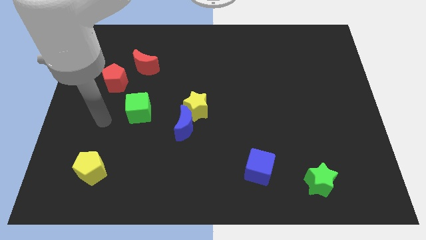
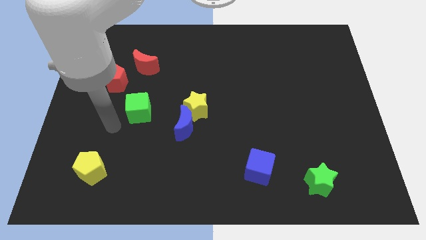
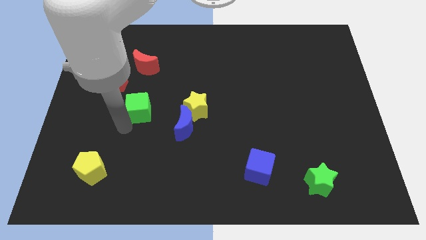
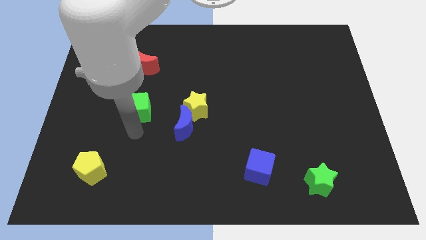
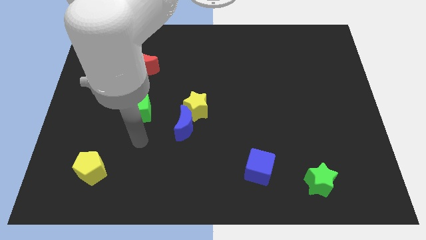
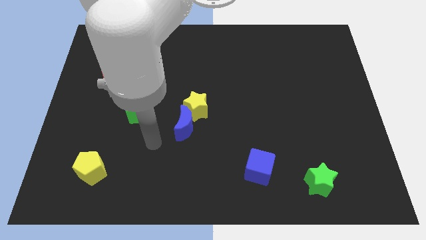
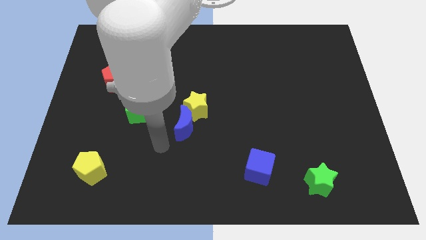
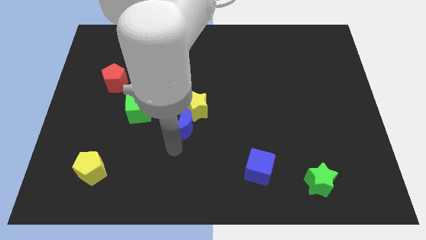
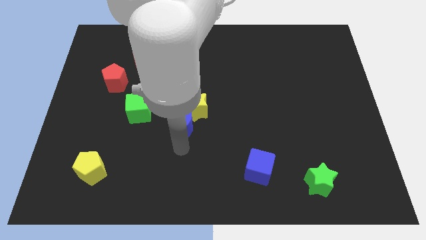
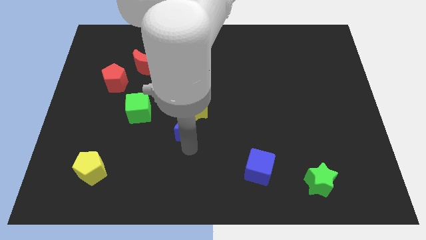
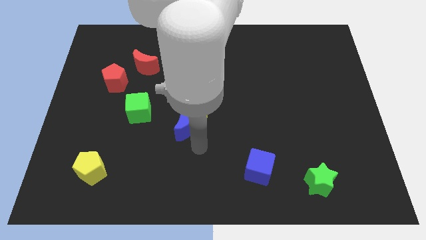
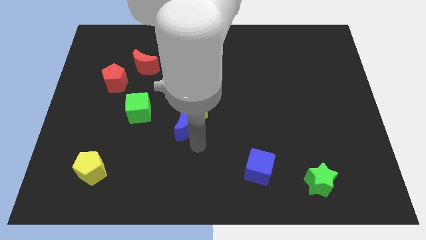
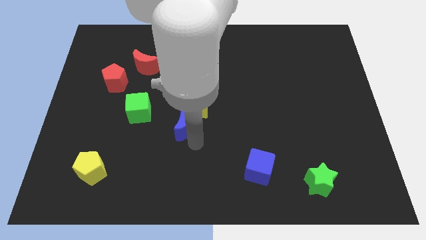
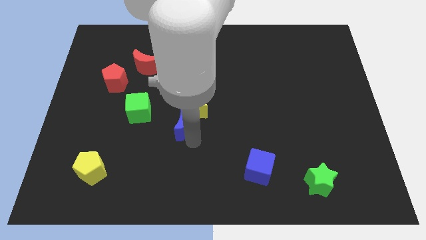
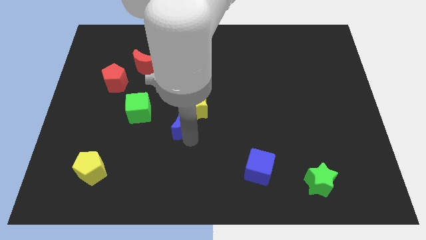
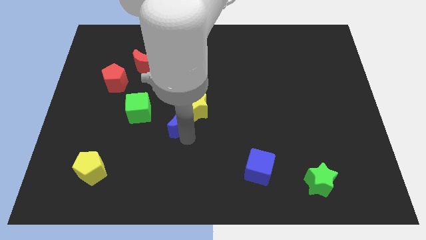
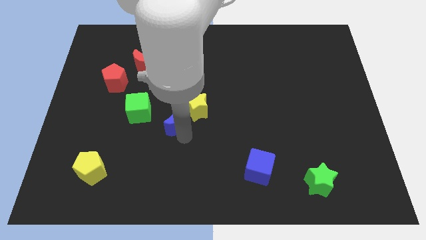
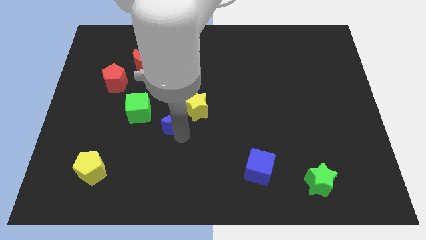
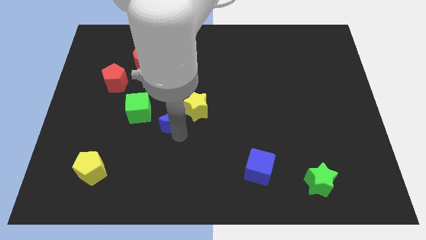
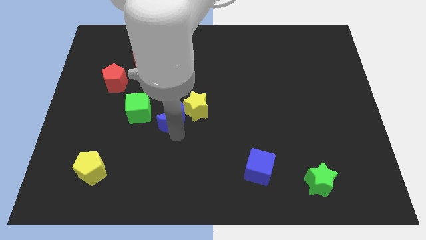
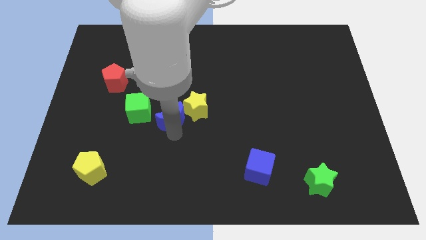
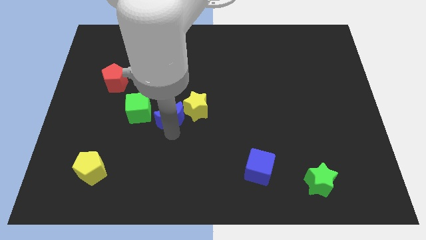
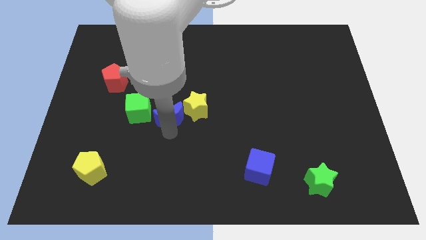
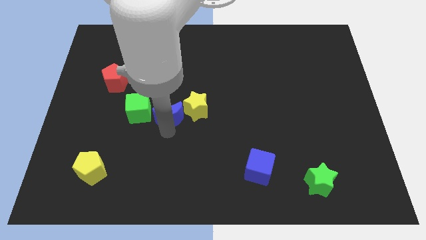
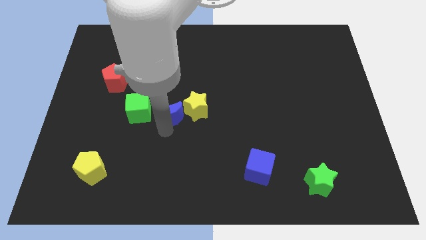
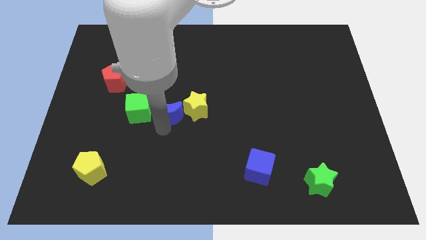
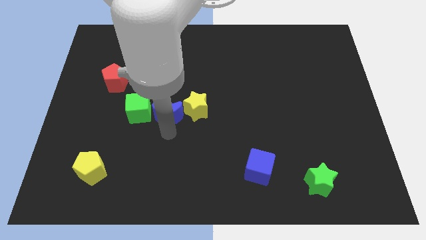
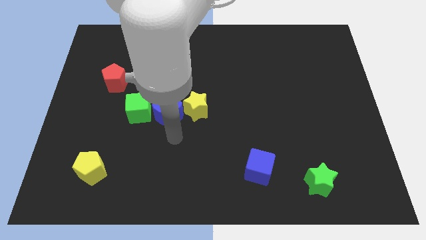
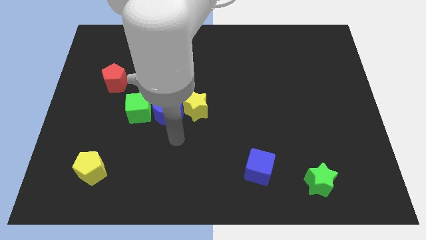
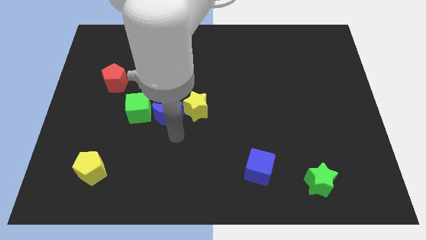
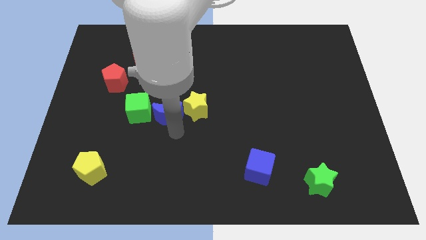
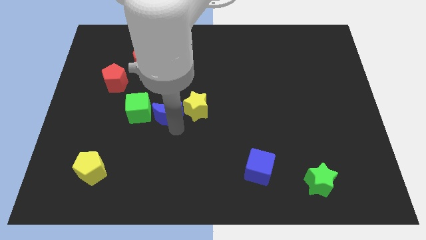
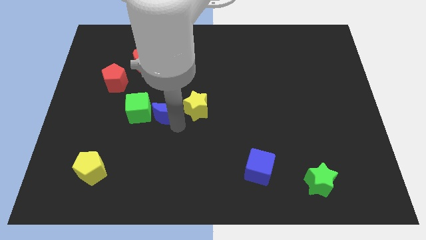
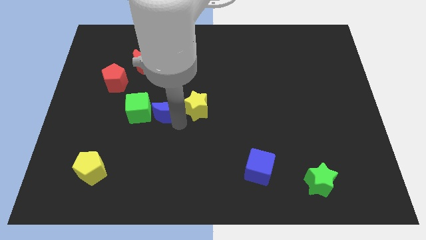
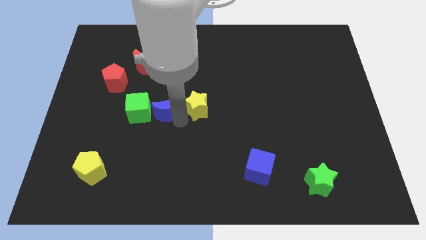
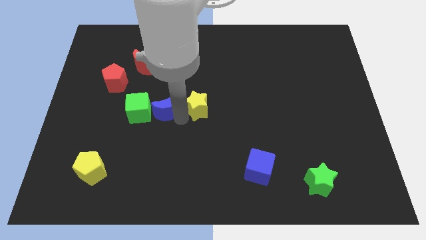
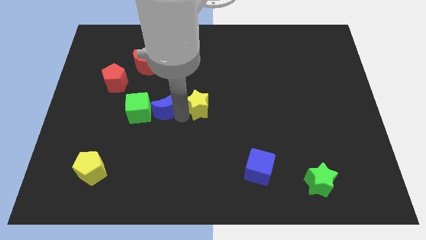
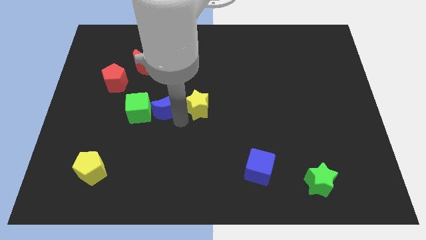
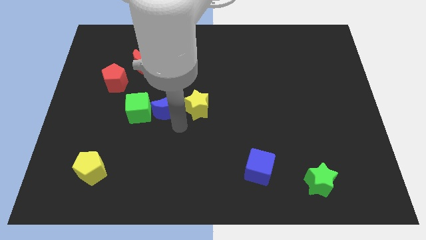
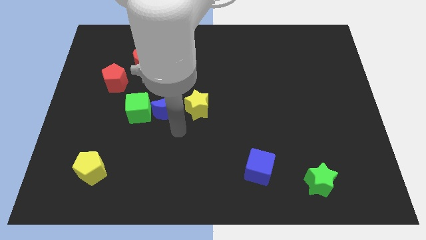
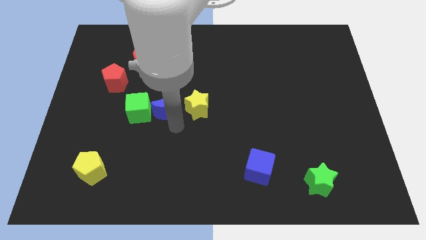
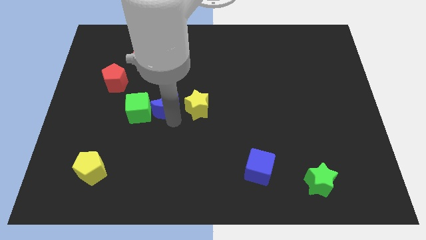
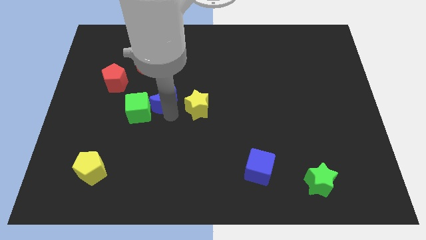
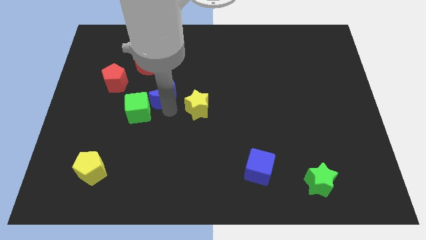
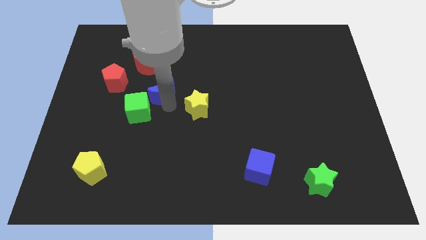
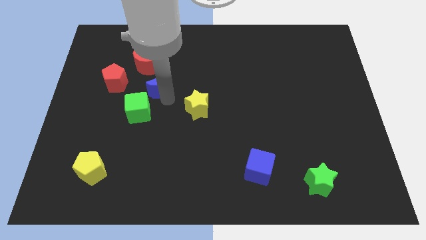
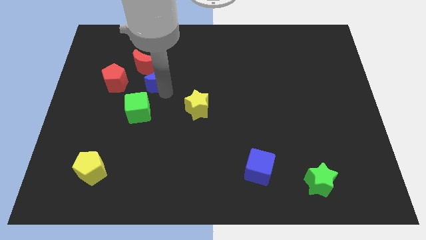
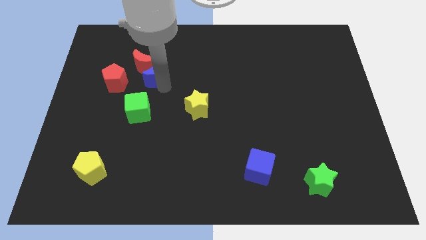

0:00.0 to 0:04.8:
move the blue moon to the red moon

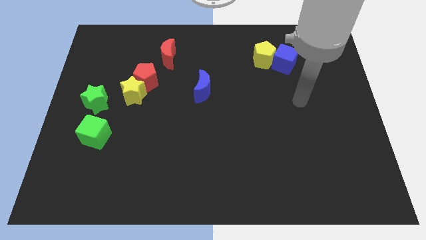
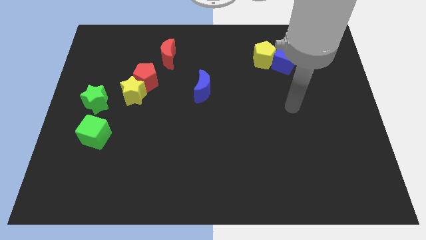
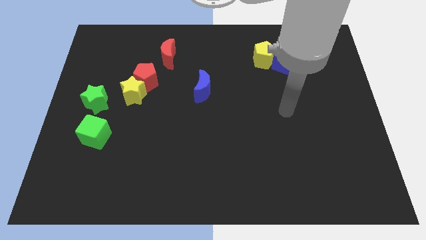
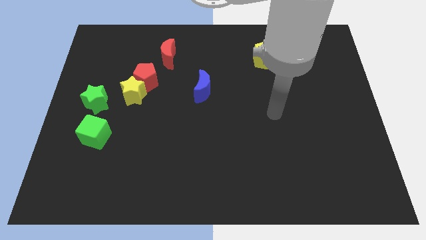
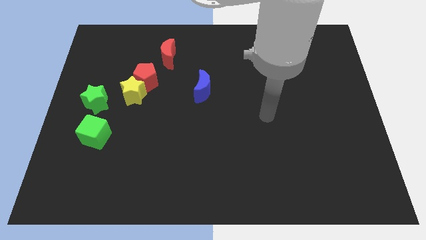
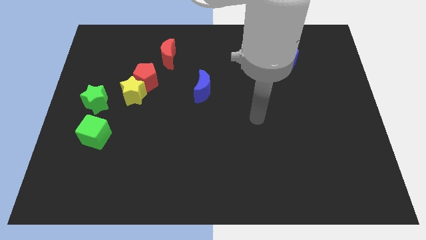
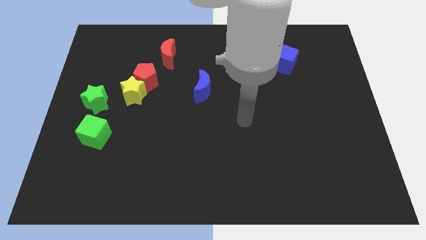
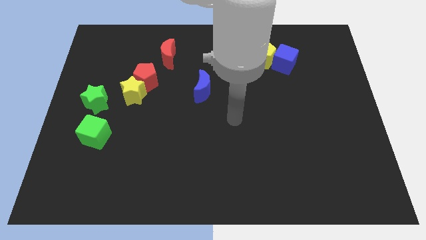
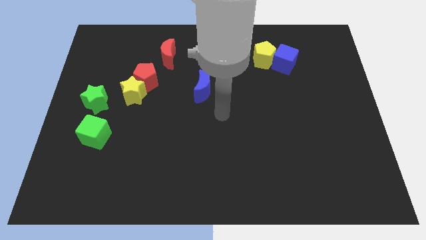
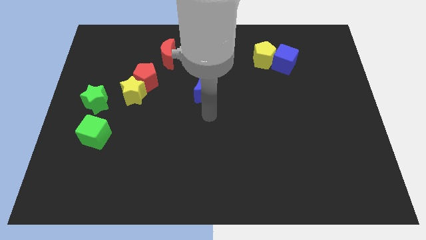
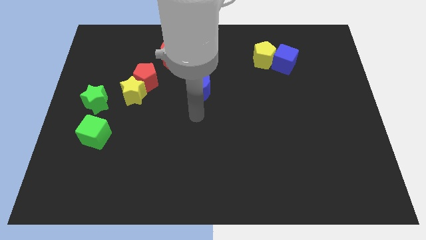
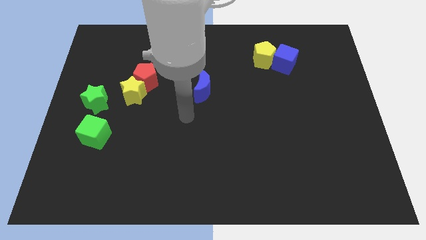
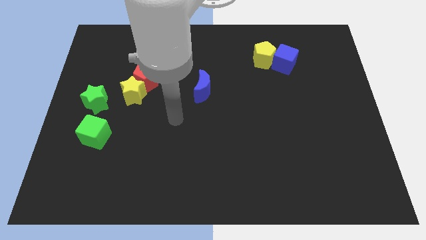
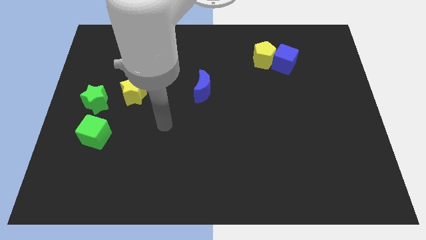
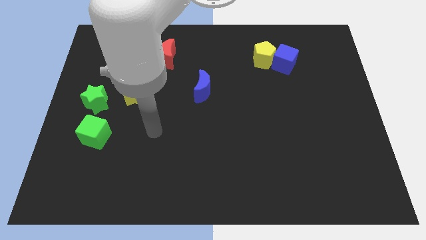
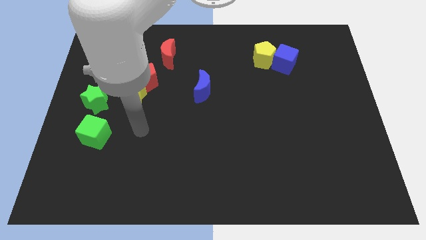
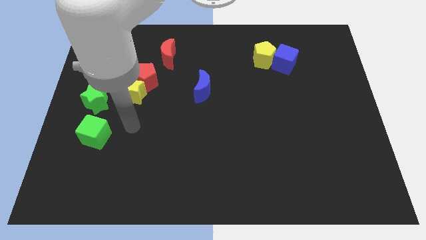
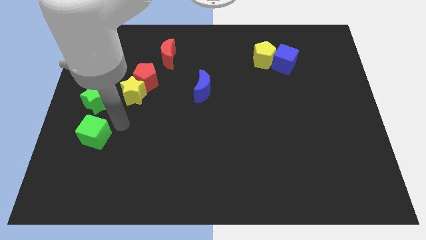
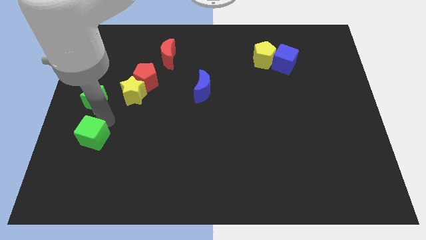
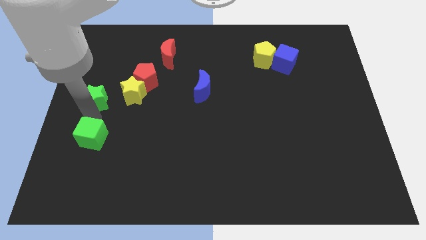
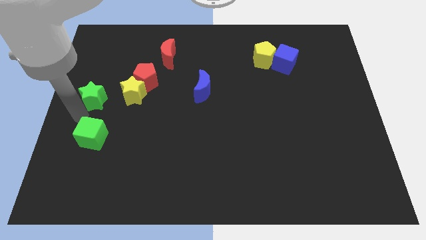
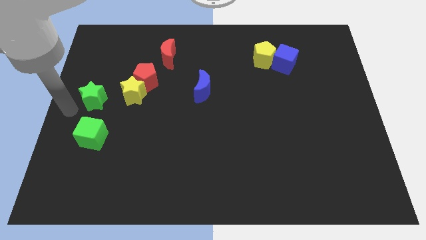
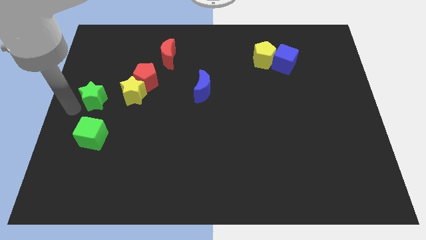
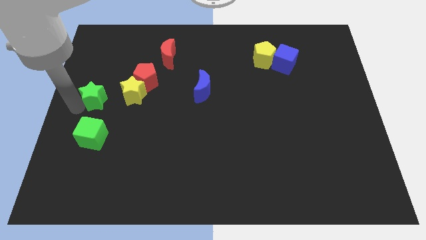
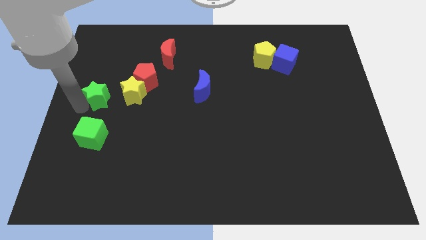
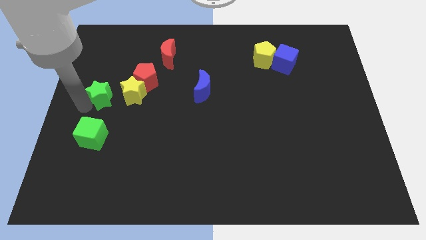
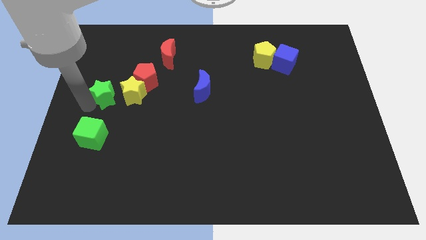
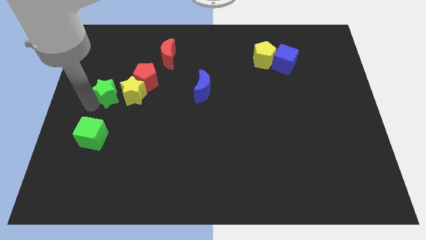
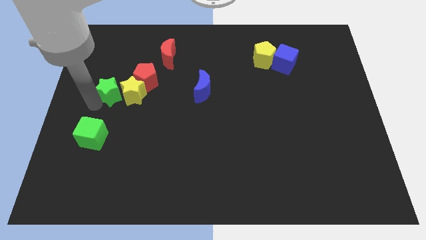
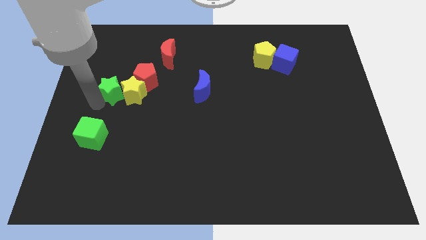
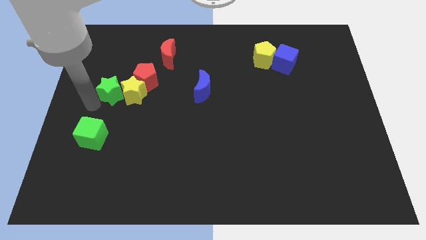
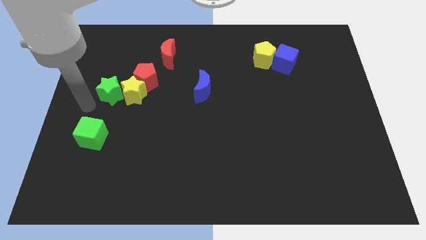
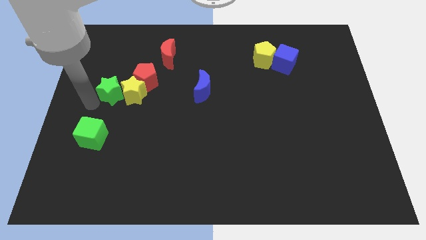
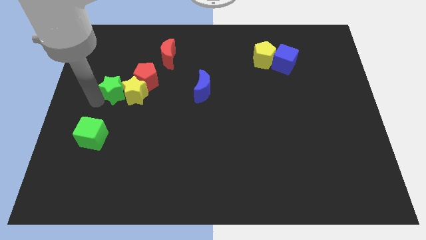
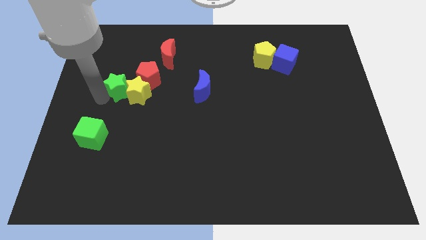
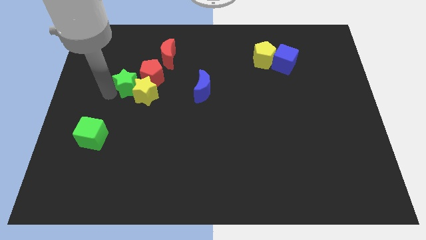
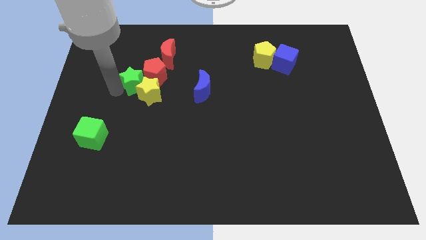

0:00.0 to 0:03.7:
slide the green star next to the red pentagon
